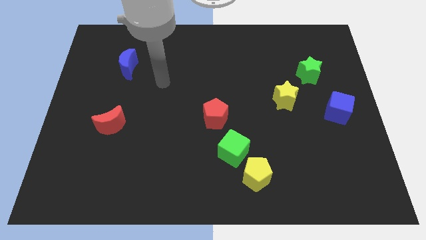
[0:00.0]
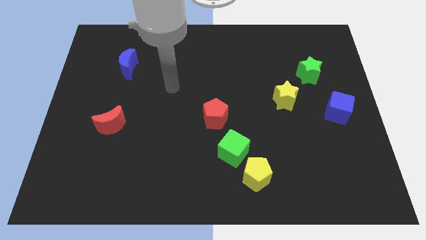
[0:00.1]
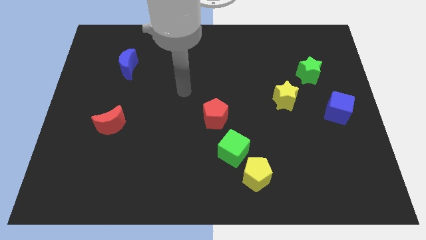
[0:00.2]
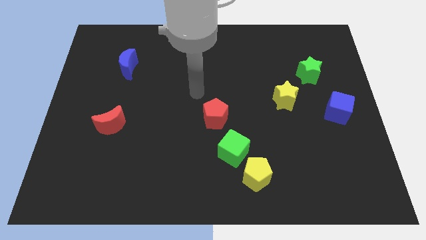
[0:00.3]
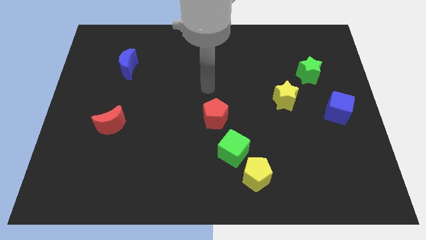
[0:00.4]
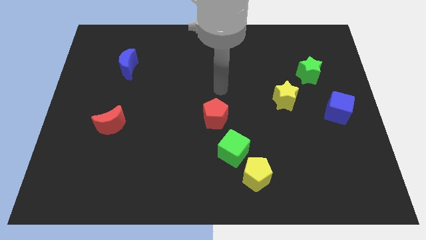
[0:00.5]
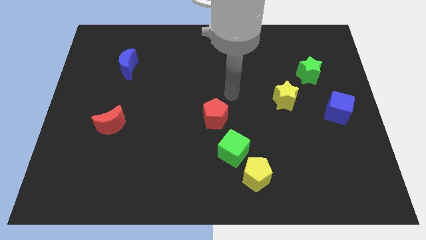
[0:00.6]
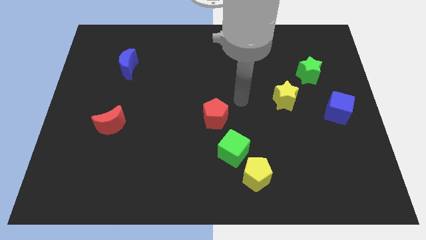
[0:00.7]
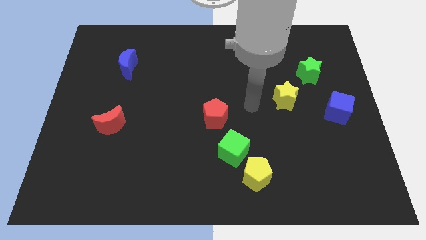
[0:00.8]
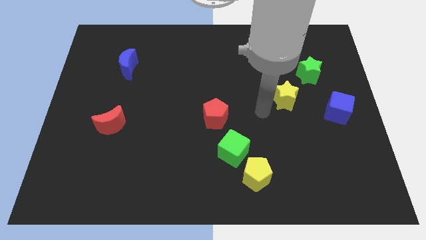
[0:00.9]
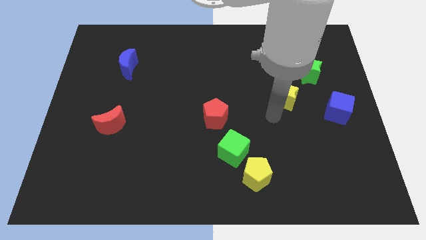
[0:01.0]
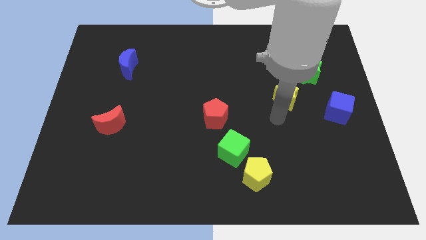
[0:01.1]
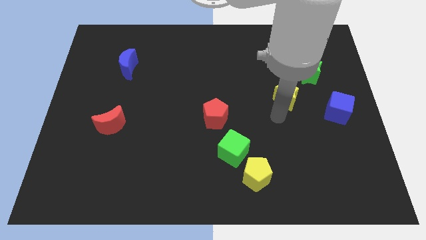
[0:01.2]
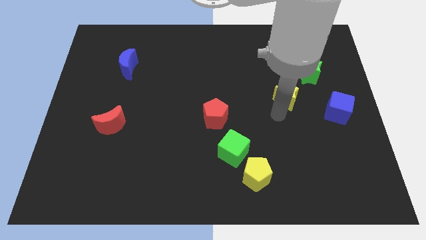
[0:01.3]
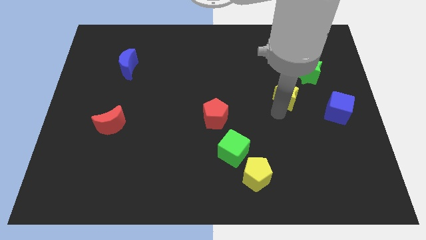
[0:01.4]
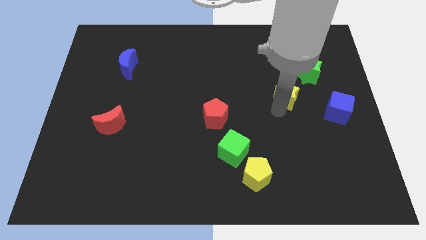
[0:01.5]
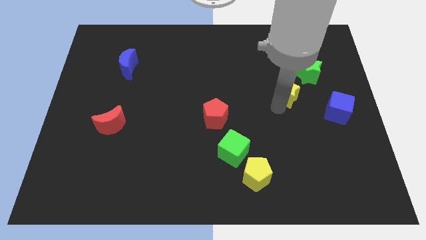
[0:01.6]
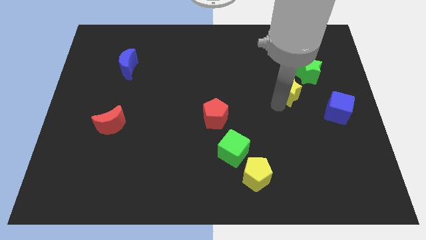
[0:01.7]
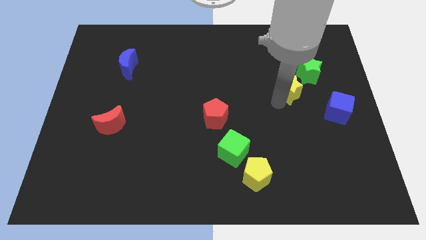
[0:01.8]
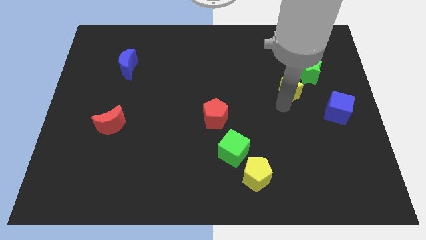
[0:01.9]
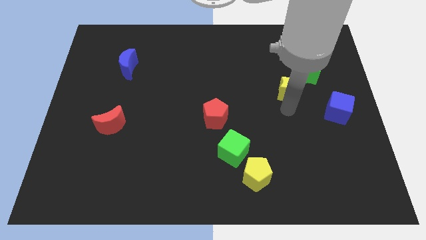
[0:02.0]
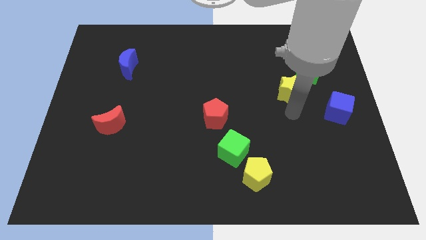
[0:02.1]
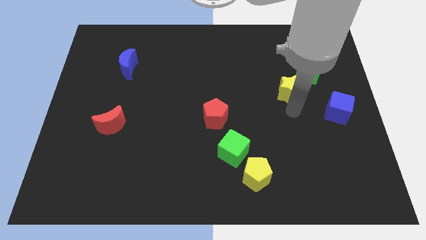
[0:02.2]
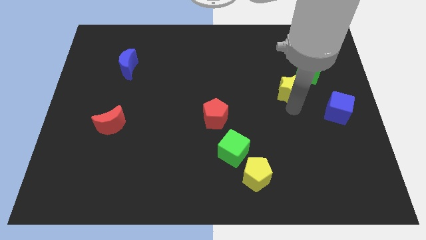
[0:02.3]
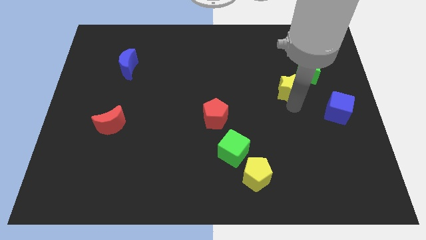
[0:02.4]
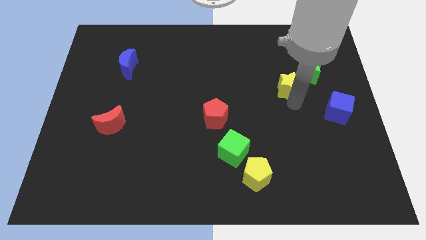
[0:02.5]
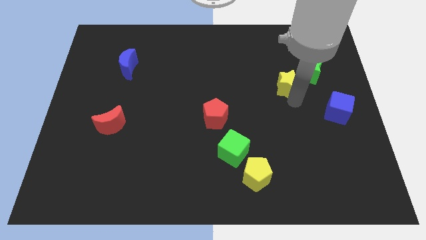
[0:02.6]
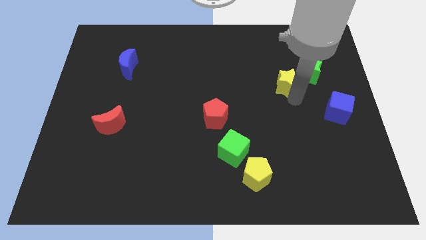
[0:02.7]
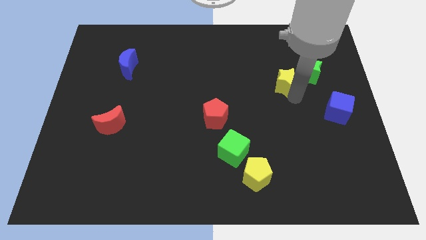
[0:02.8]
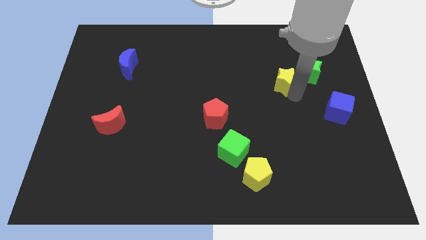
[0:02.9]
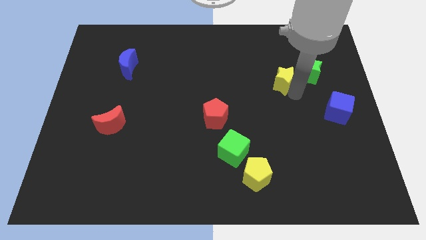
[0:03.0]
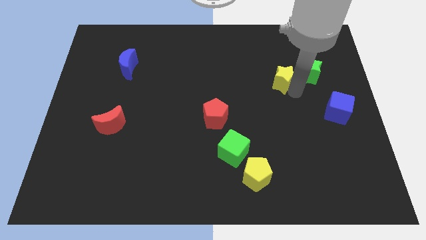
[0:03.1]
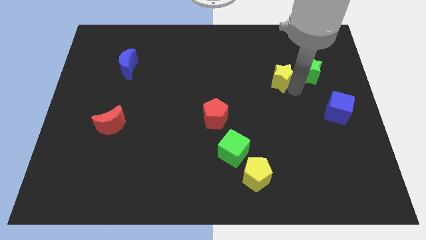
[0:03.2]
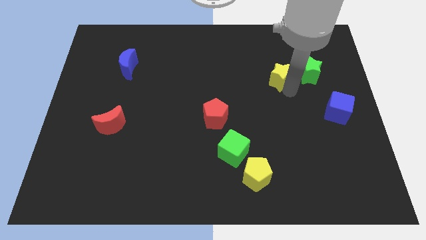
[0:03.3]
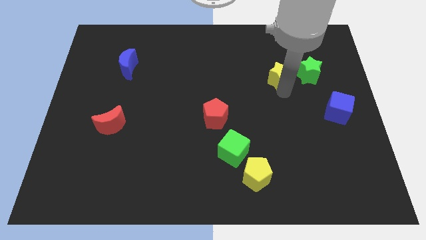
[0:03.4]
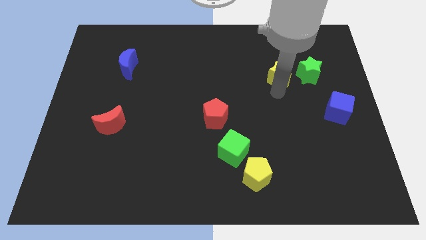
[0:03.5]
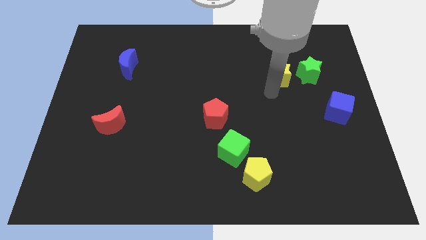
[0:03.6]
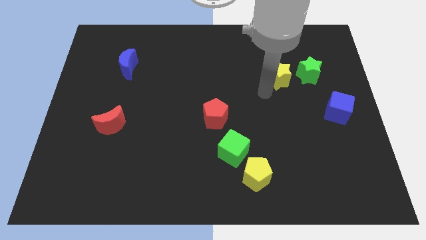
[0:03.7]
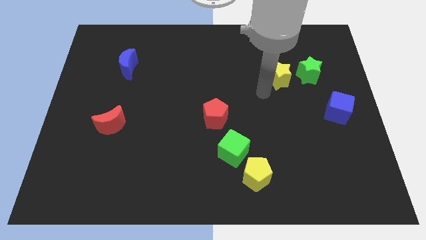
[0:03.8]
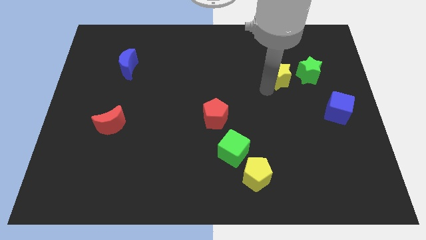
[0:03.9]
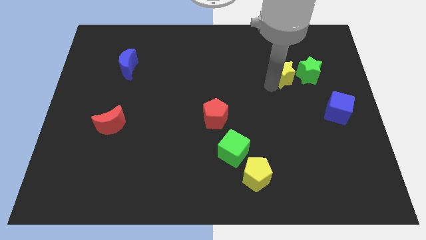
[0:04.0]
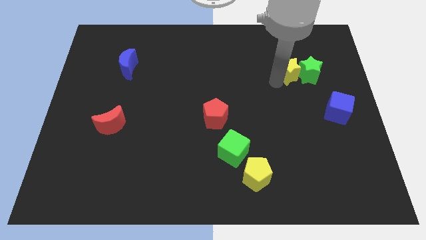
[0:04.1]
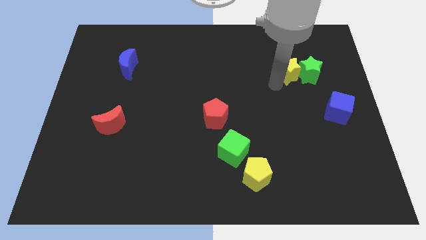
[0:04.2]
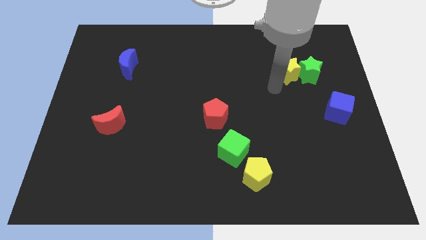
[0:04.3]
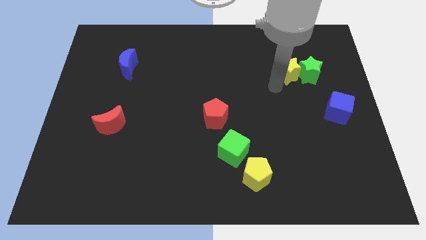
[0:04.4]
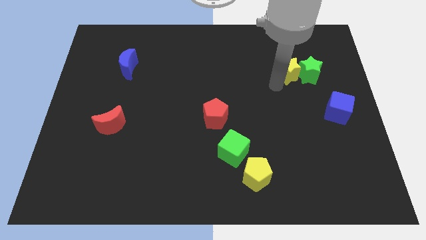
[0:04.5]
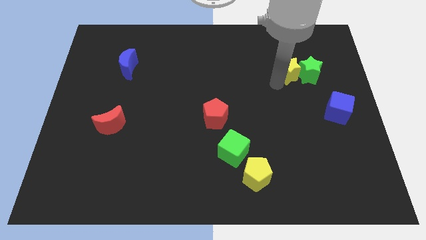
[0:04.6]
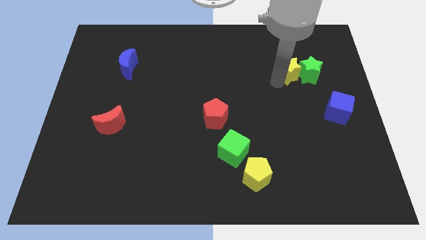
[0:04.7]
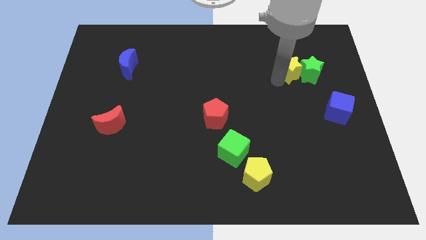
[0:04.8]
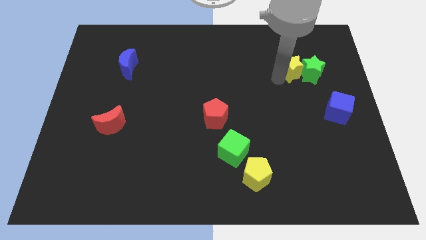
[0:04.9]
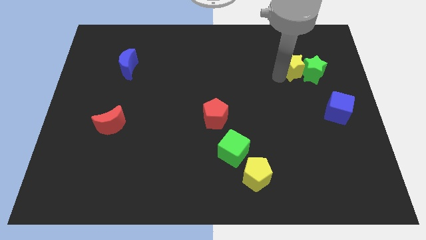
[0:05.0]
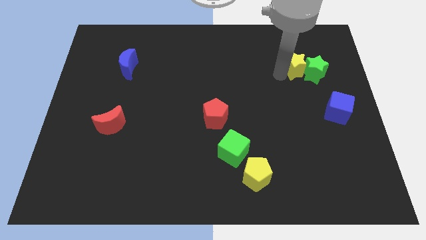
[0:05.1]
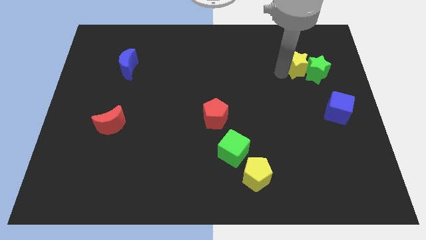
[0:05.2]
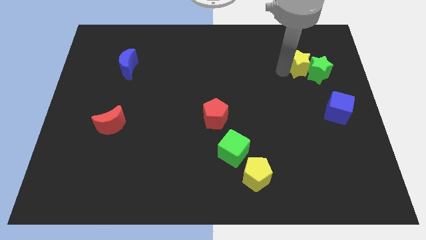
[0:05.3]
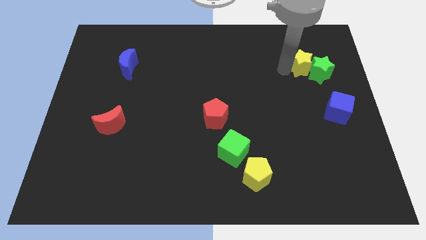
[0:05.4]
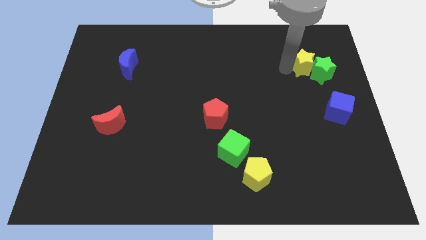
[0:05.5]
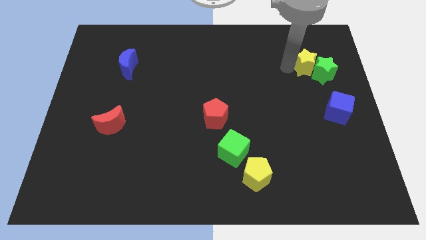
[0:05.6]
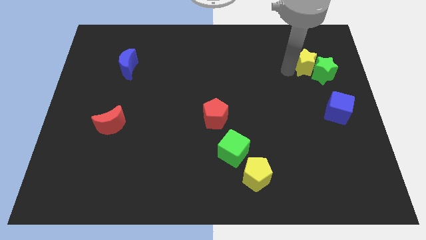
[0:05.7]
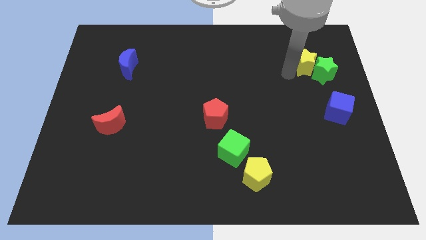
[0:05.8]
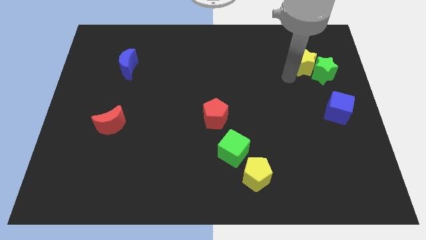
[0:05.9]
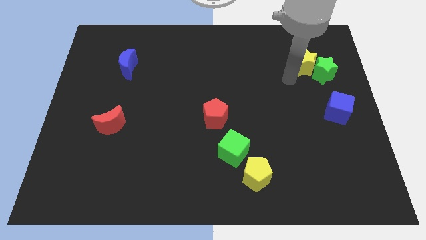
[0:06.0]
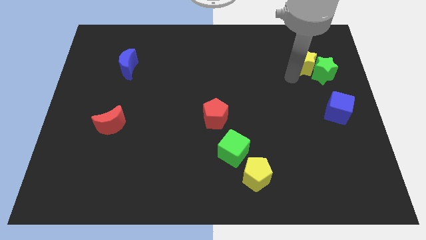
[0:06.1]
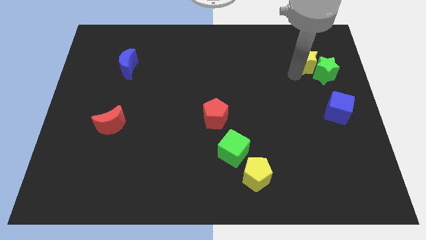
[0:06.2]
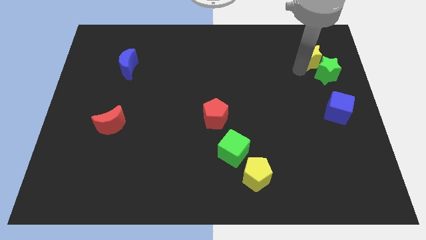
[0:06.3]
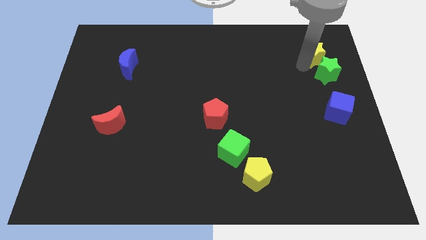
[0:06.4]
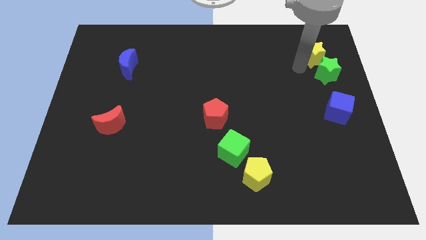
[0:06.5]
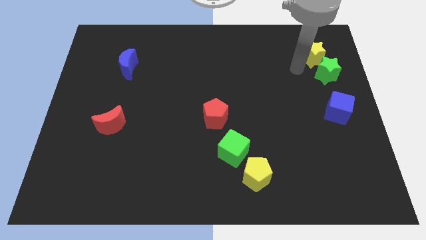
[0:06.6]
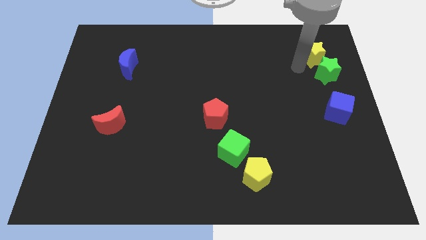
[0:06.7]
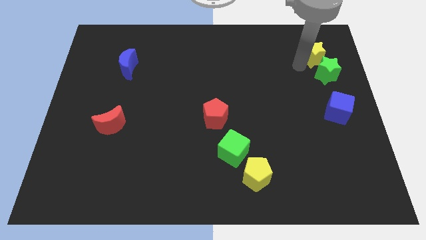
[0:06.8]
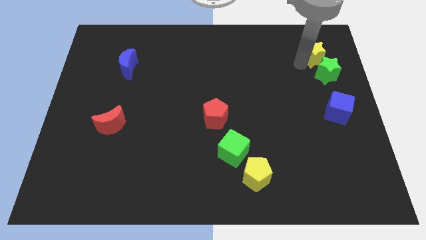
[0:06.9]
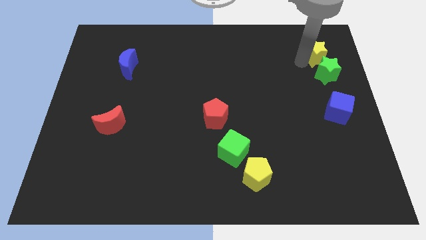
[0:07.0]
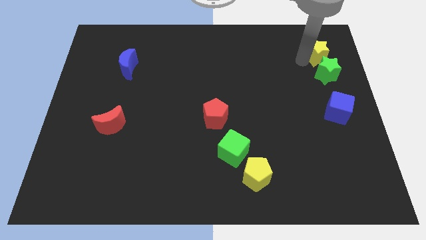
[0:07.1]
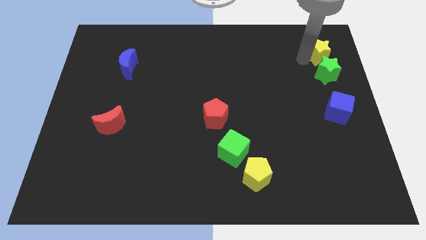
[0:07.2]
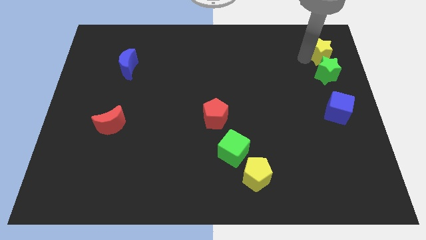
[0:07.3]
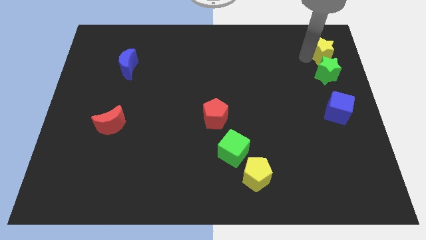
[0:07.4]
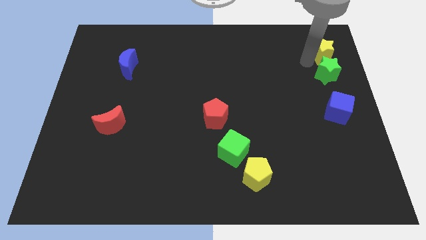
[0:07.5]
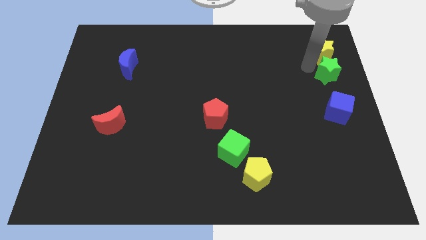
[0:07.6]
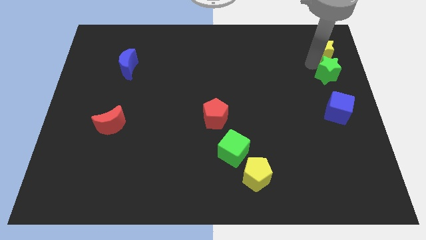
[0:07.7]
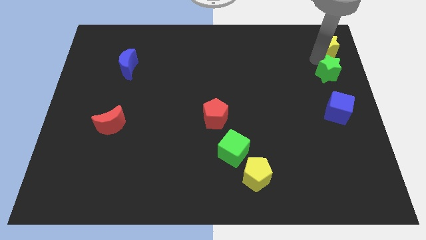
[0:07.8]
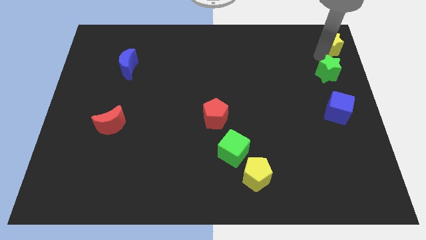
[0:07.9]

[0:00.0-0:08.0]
slide the yellow star to the top right of the board
